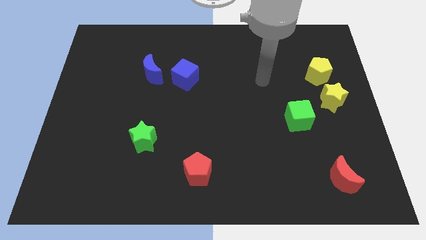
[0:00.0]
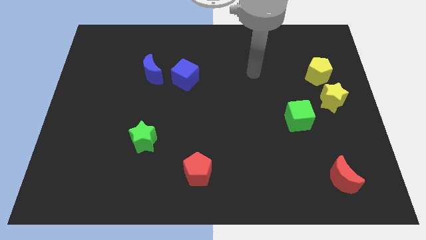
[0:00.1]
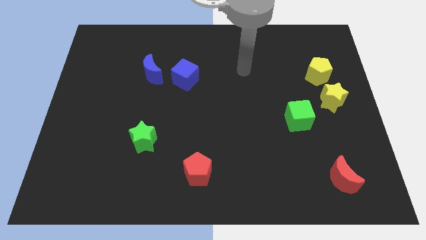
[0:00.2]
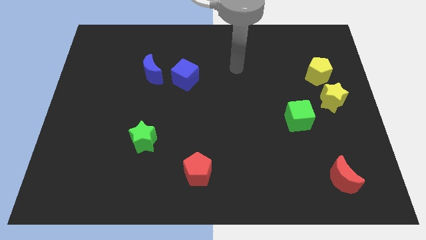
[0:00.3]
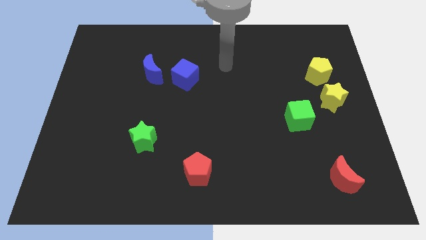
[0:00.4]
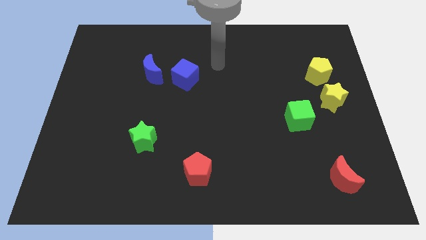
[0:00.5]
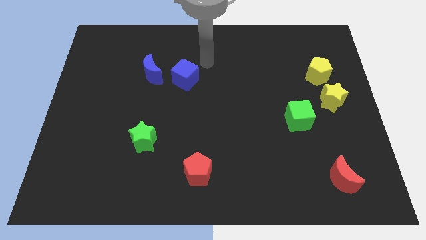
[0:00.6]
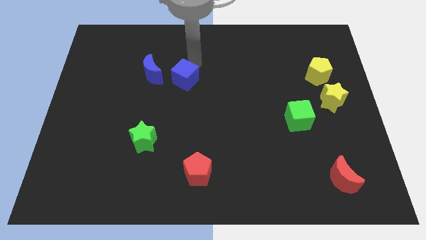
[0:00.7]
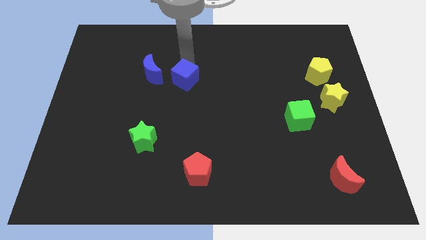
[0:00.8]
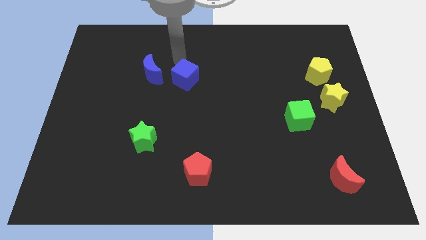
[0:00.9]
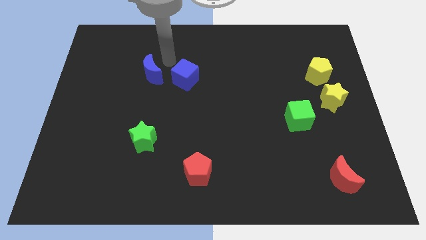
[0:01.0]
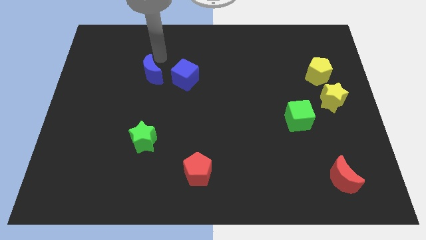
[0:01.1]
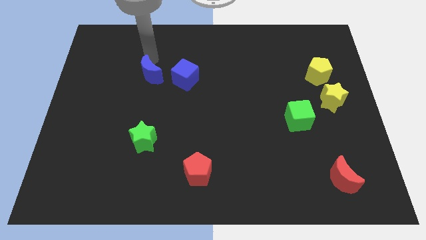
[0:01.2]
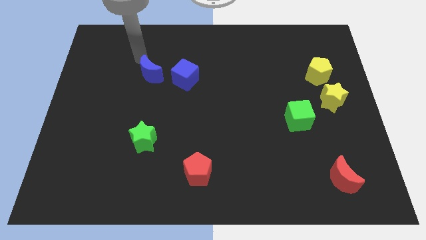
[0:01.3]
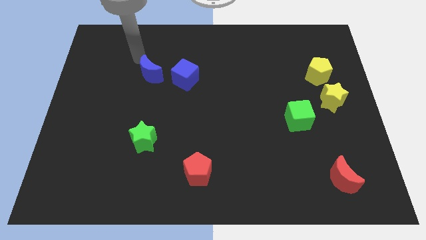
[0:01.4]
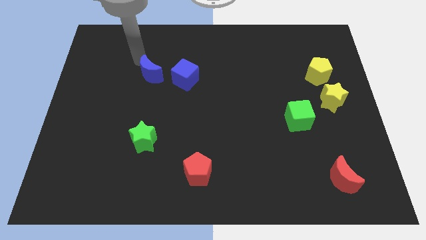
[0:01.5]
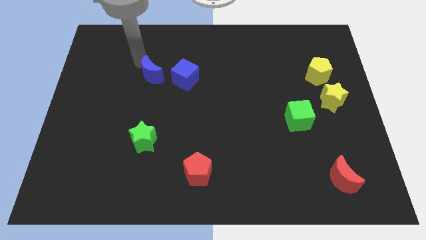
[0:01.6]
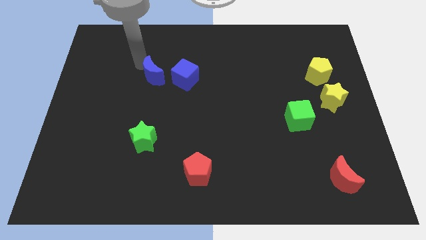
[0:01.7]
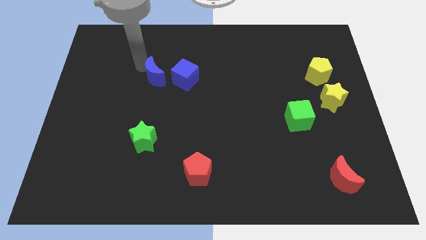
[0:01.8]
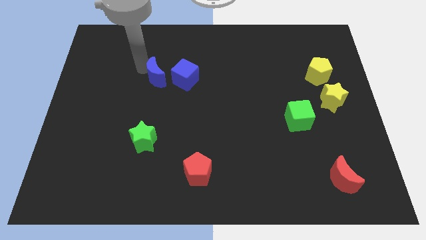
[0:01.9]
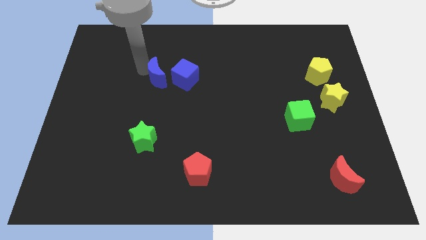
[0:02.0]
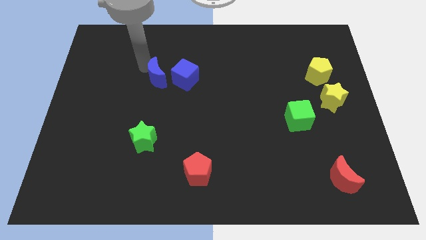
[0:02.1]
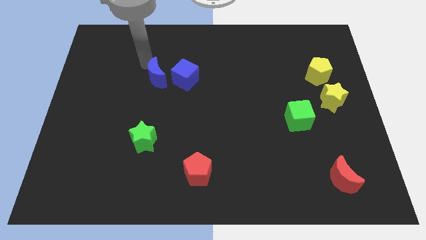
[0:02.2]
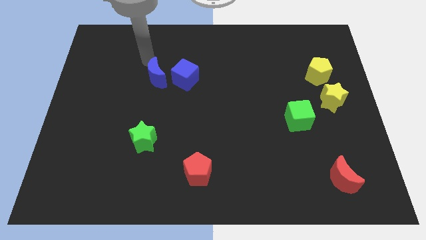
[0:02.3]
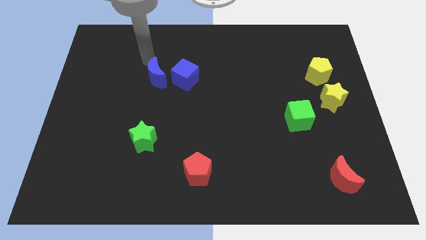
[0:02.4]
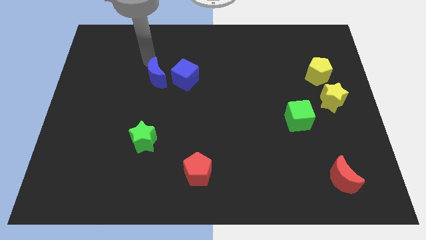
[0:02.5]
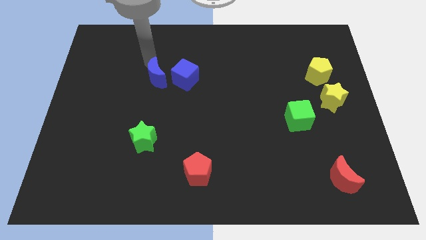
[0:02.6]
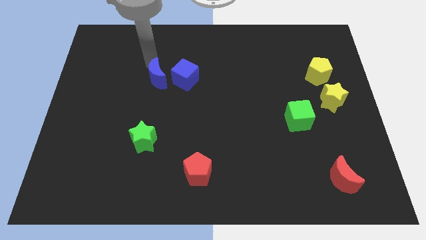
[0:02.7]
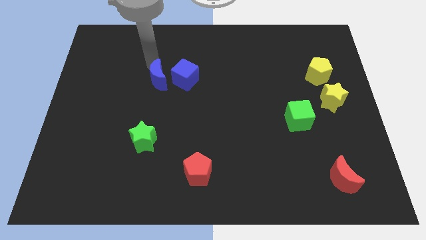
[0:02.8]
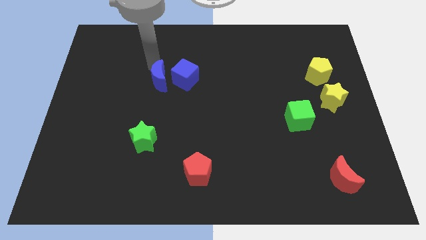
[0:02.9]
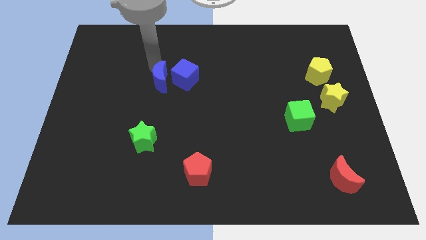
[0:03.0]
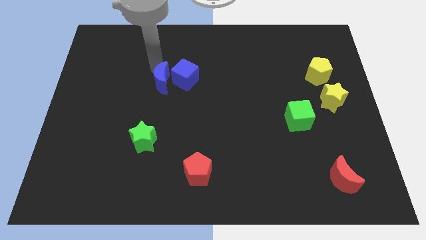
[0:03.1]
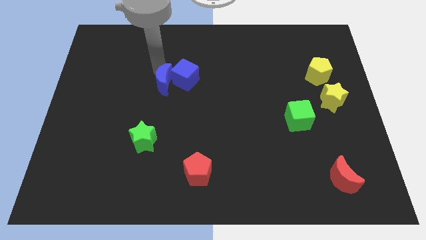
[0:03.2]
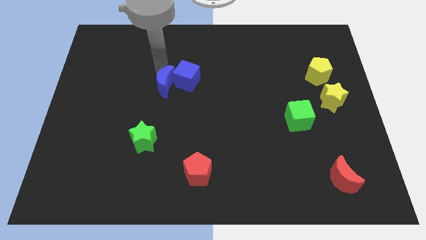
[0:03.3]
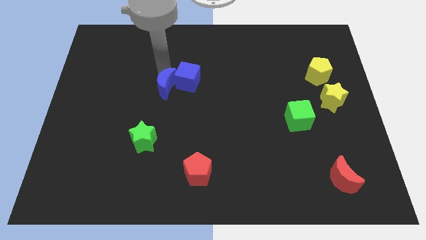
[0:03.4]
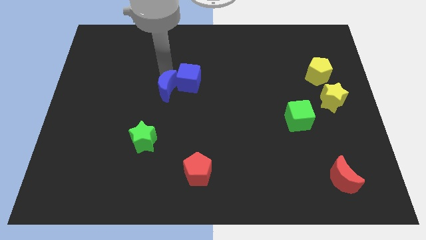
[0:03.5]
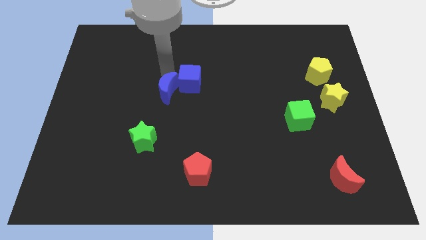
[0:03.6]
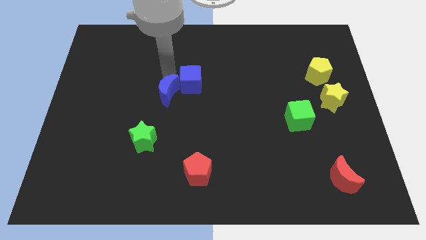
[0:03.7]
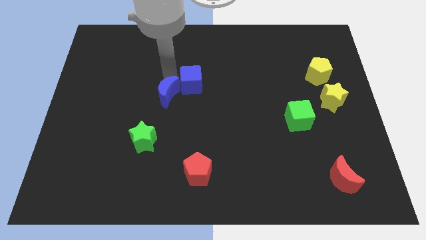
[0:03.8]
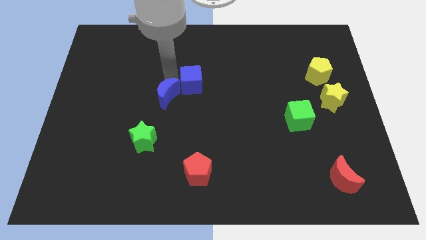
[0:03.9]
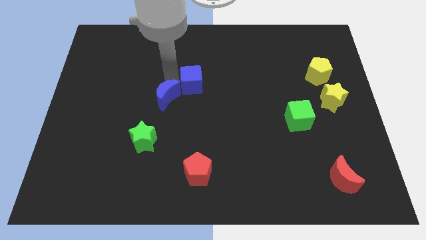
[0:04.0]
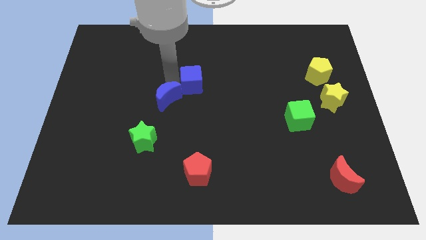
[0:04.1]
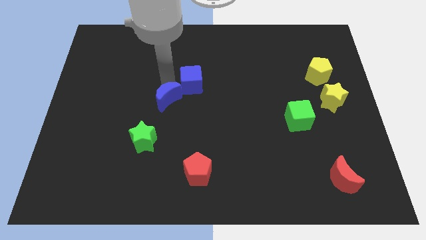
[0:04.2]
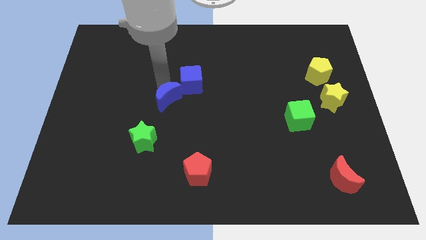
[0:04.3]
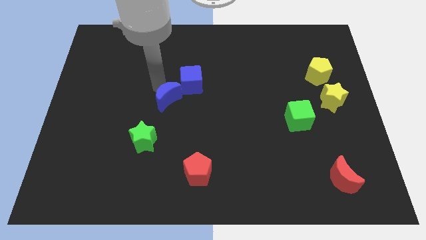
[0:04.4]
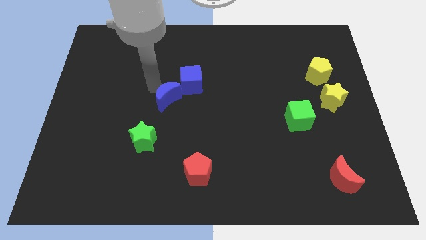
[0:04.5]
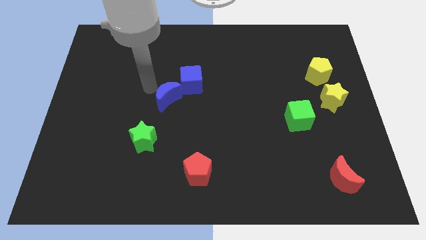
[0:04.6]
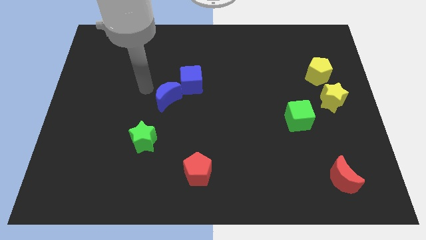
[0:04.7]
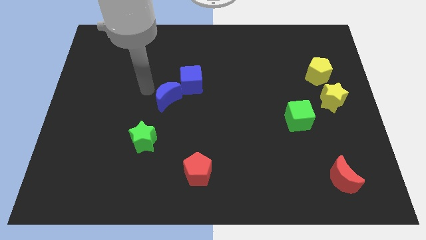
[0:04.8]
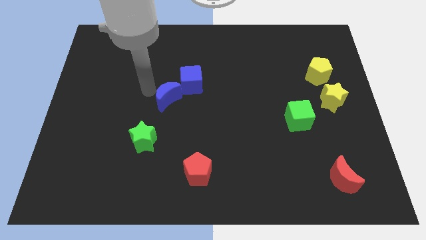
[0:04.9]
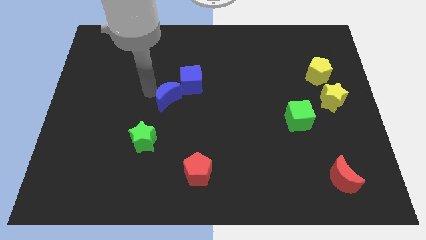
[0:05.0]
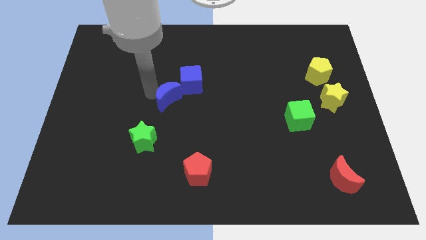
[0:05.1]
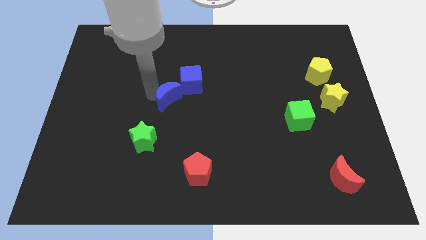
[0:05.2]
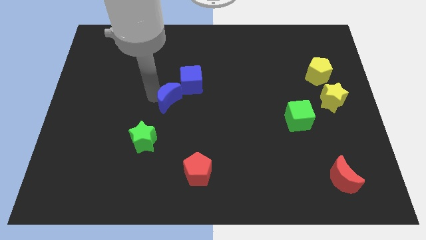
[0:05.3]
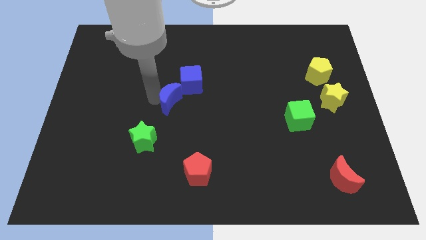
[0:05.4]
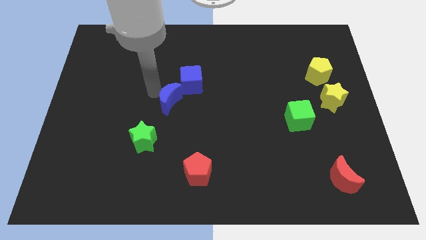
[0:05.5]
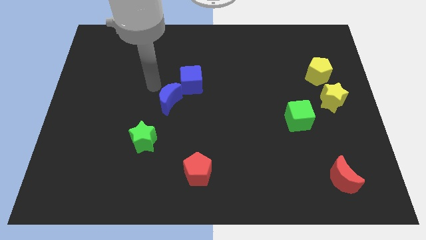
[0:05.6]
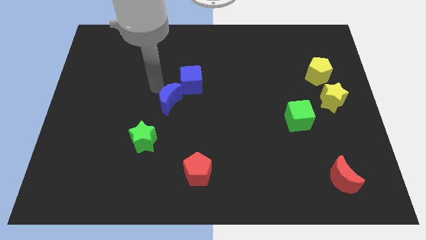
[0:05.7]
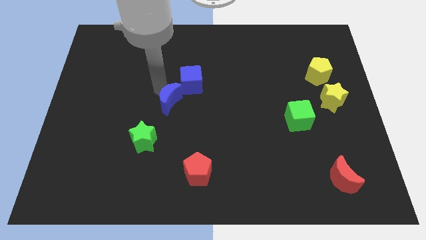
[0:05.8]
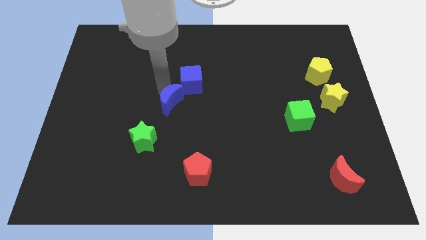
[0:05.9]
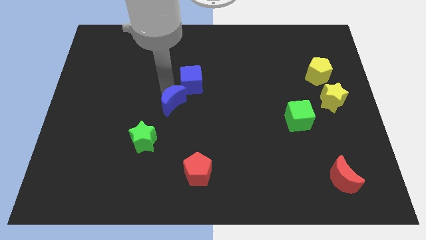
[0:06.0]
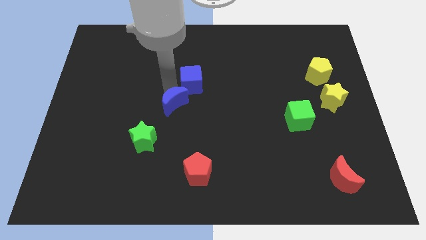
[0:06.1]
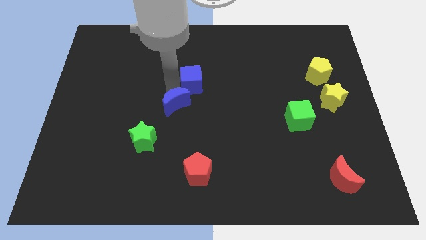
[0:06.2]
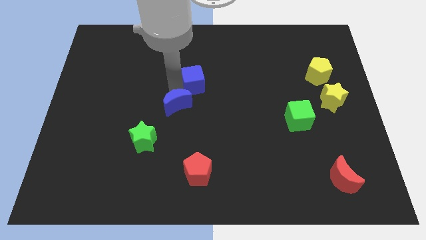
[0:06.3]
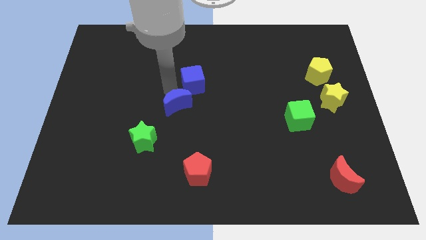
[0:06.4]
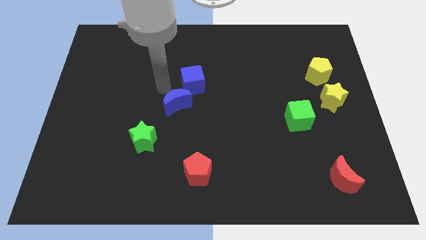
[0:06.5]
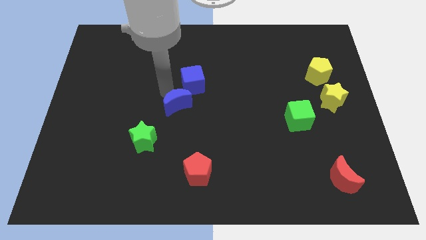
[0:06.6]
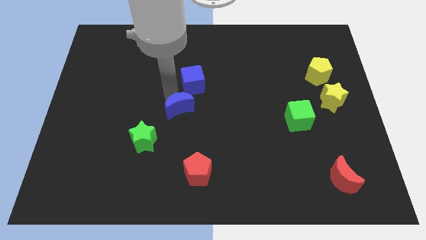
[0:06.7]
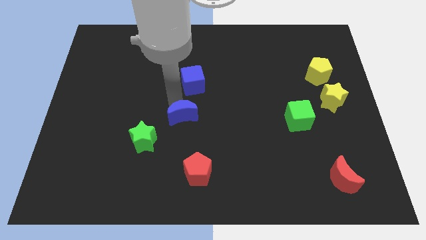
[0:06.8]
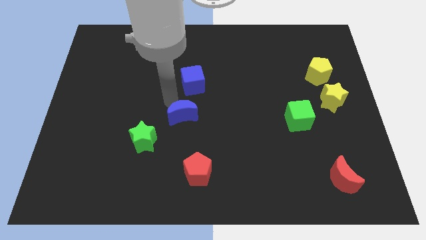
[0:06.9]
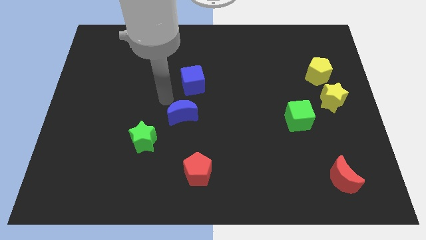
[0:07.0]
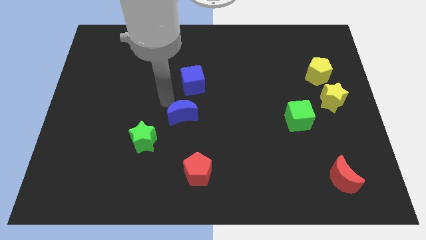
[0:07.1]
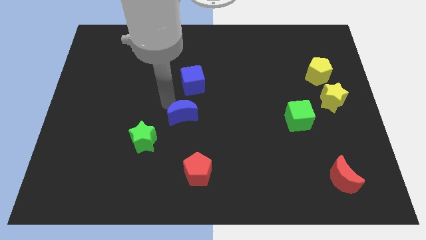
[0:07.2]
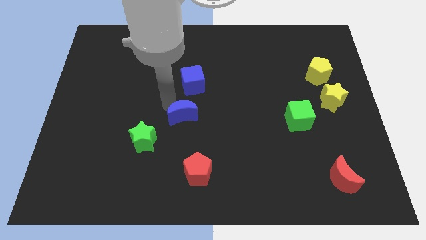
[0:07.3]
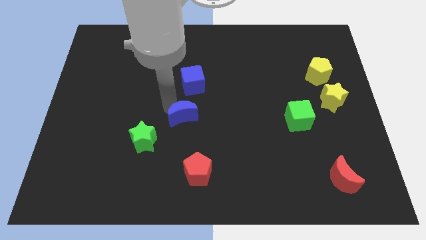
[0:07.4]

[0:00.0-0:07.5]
move the blue moon to the top side of the red pentagon

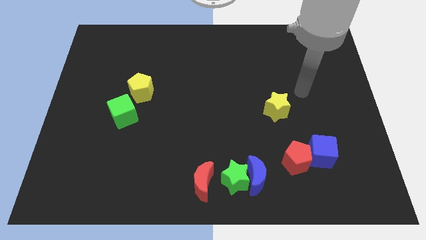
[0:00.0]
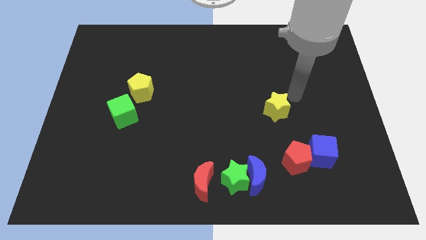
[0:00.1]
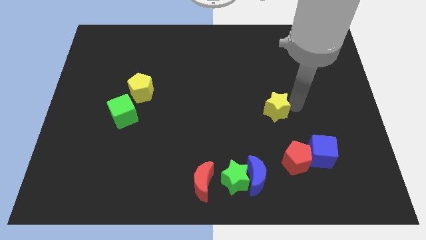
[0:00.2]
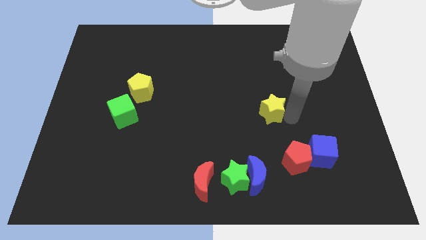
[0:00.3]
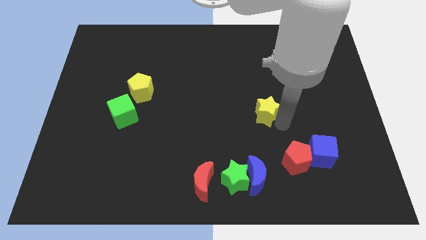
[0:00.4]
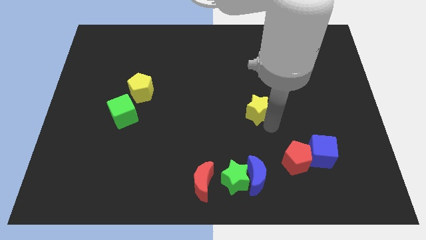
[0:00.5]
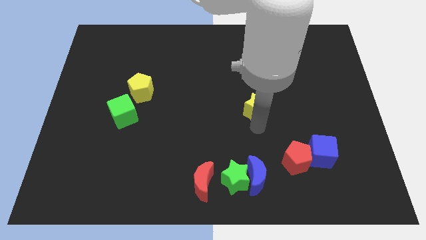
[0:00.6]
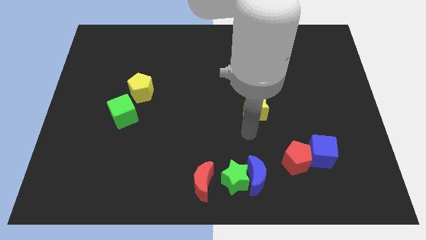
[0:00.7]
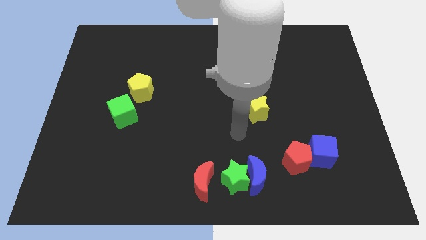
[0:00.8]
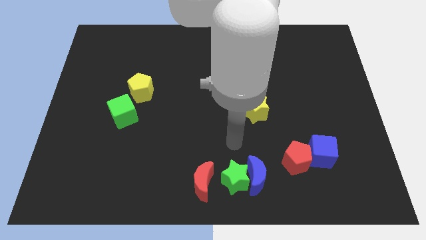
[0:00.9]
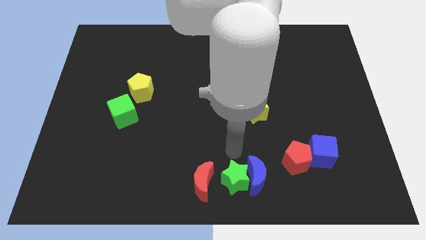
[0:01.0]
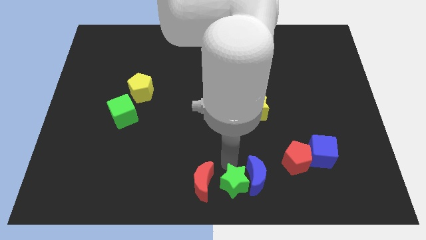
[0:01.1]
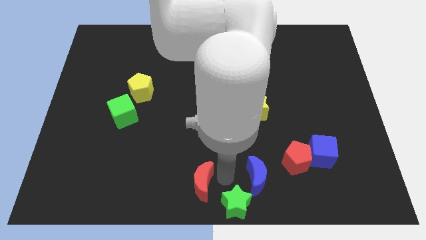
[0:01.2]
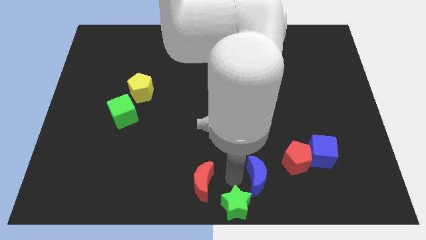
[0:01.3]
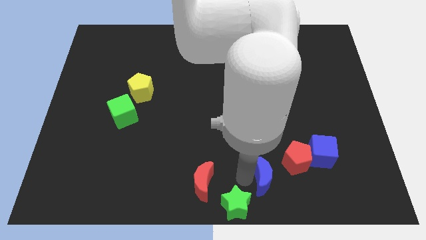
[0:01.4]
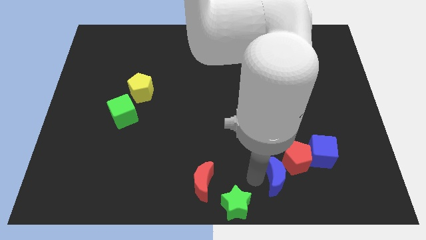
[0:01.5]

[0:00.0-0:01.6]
slide the blue moon to the bottom left side of the blue cube
